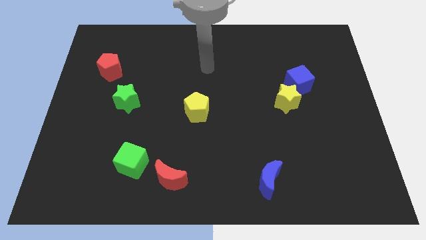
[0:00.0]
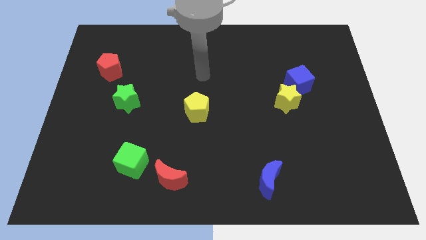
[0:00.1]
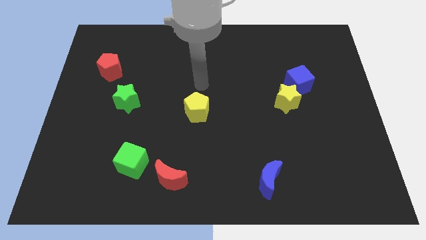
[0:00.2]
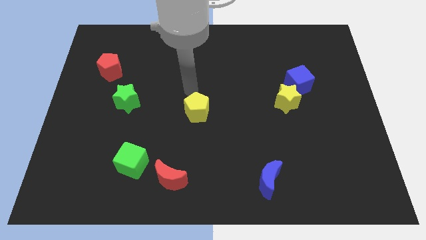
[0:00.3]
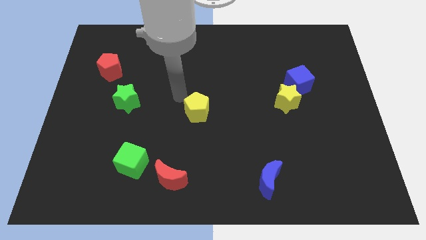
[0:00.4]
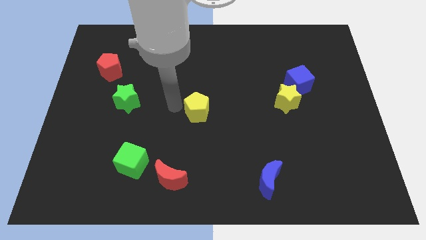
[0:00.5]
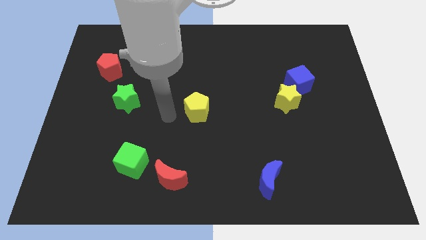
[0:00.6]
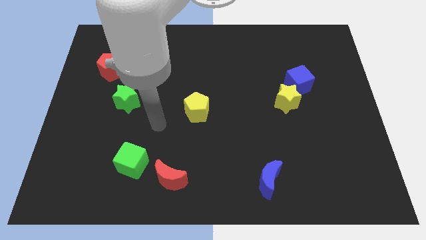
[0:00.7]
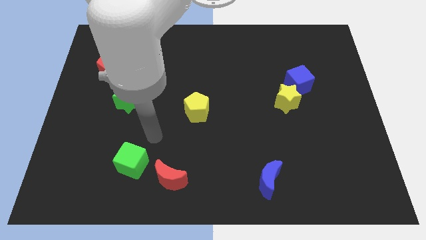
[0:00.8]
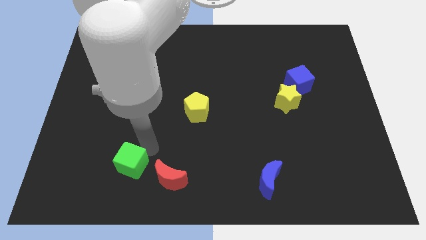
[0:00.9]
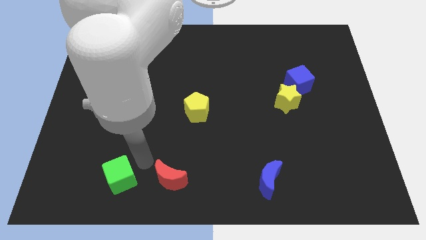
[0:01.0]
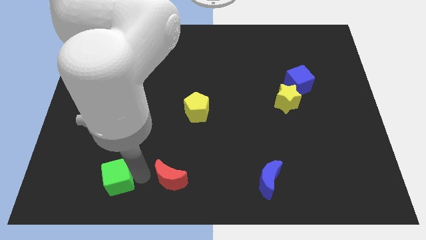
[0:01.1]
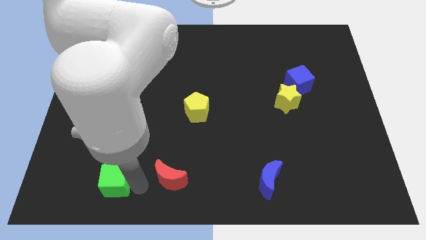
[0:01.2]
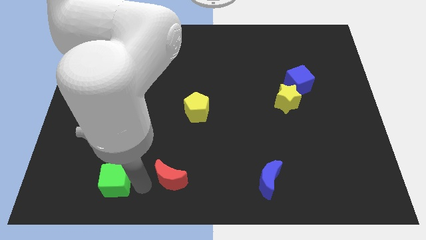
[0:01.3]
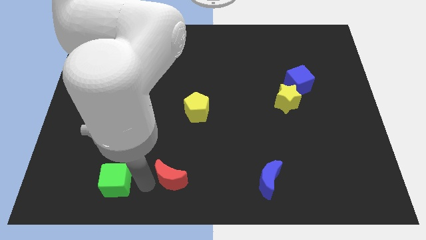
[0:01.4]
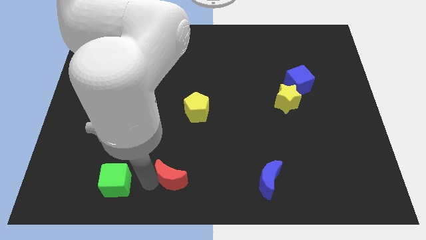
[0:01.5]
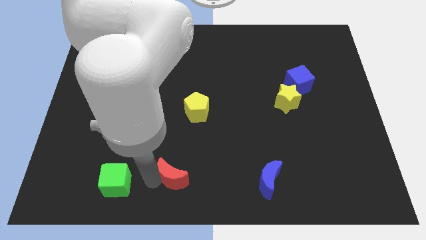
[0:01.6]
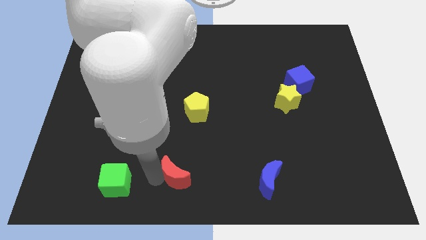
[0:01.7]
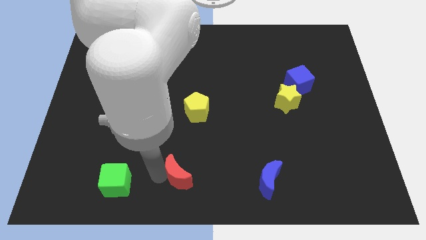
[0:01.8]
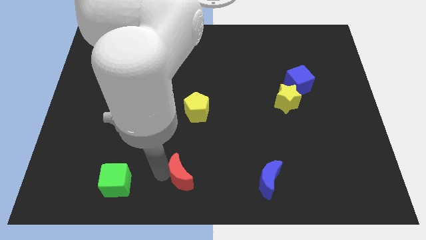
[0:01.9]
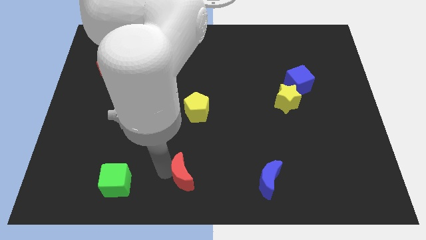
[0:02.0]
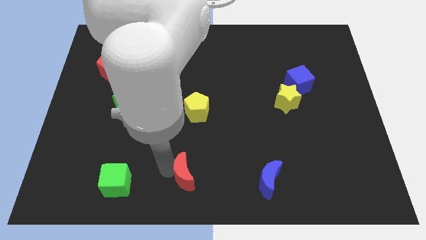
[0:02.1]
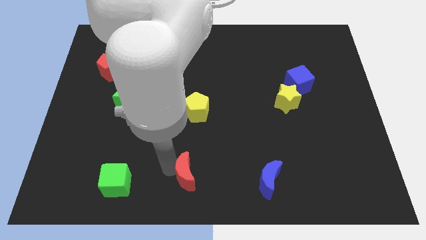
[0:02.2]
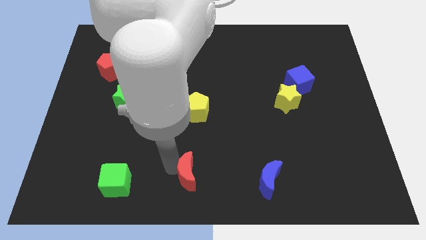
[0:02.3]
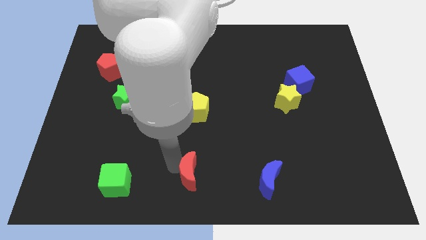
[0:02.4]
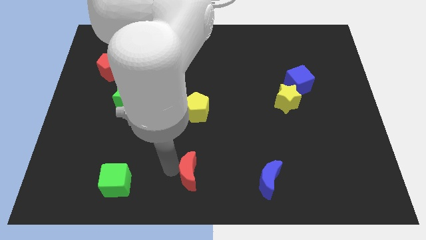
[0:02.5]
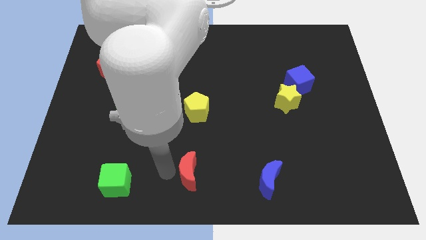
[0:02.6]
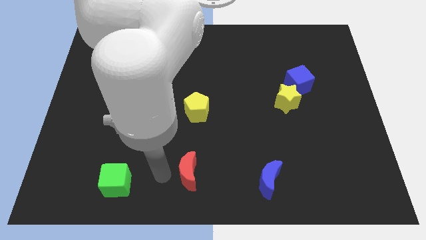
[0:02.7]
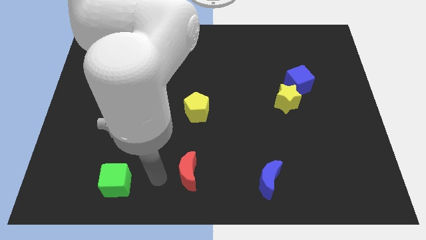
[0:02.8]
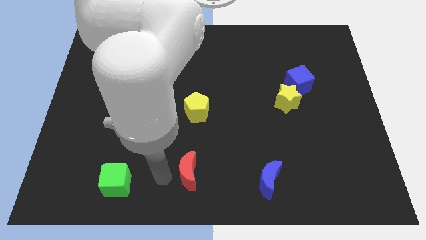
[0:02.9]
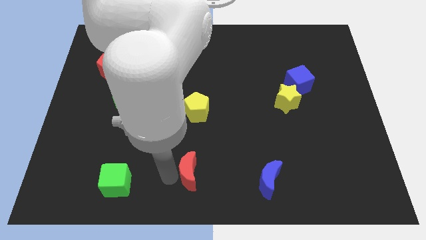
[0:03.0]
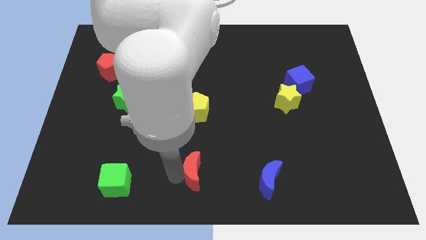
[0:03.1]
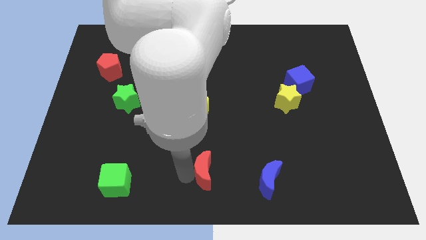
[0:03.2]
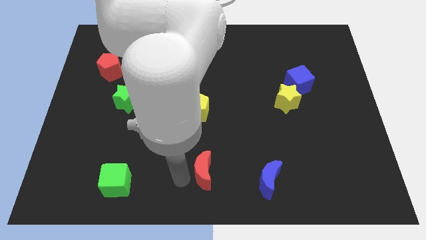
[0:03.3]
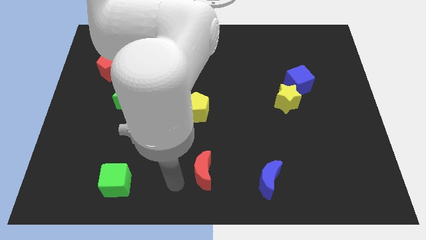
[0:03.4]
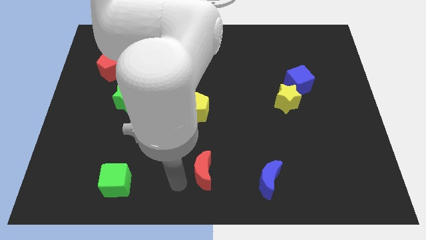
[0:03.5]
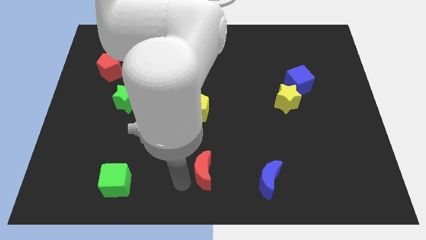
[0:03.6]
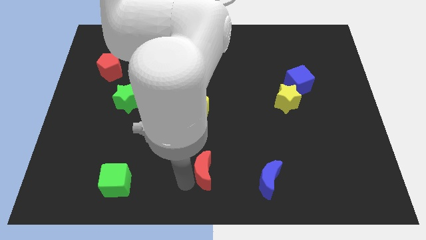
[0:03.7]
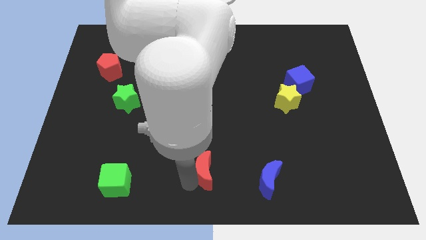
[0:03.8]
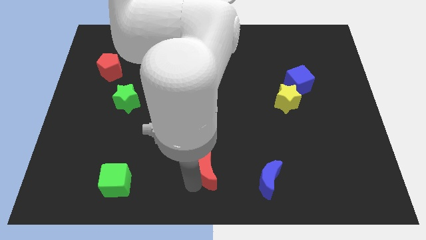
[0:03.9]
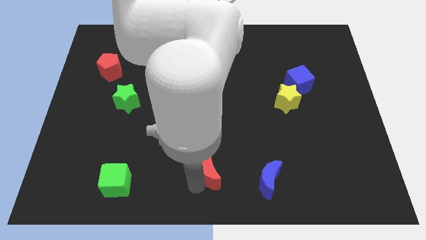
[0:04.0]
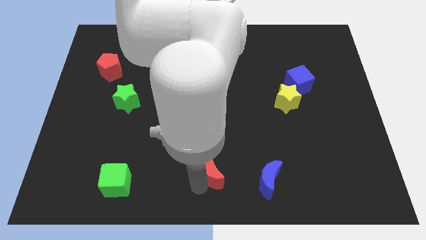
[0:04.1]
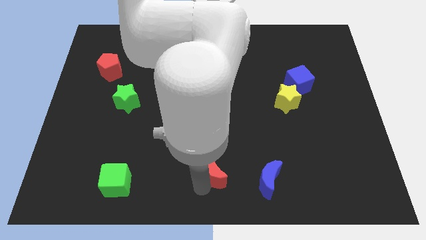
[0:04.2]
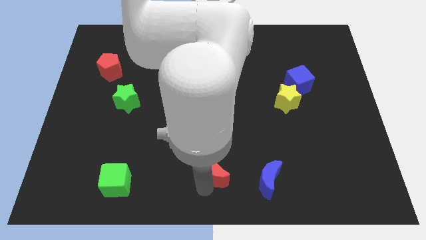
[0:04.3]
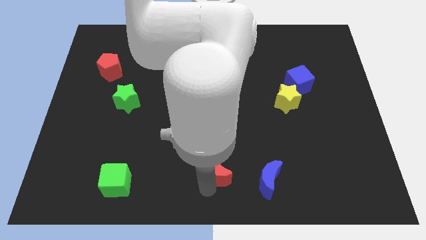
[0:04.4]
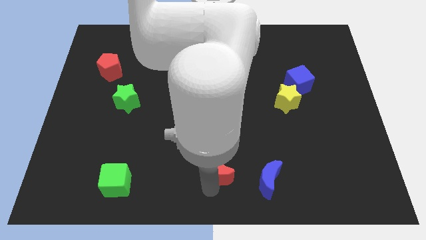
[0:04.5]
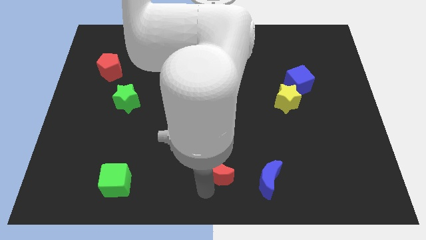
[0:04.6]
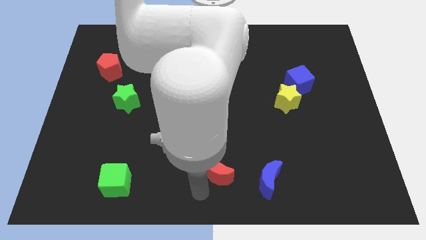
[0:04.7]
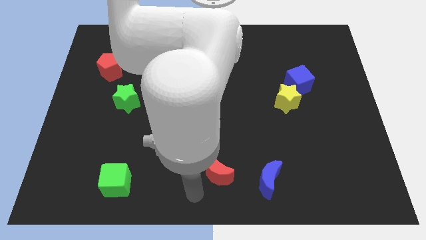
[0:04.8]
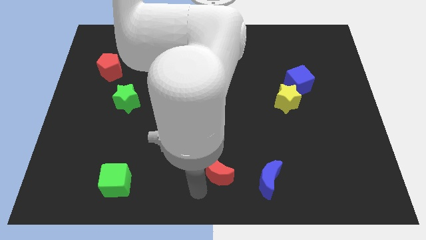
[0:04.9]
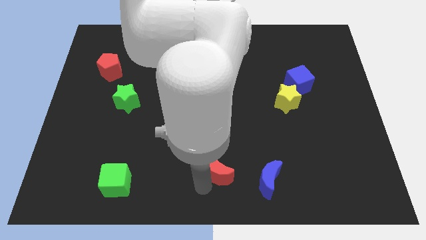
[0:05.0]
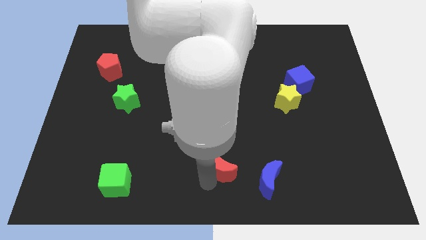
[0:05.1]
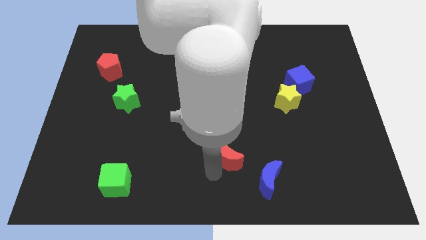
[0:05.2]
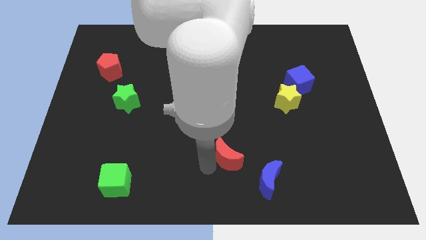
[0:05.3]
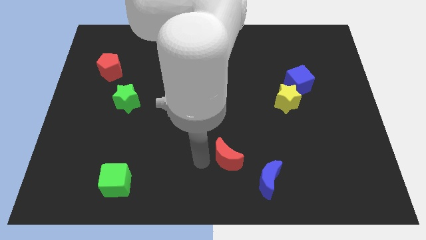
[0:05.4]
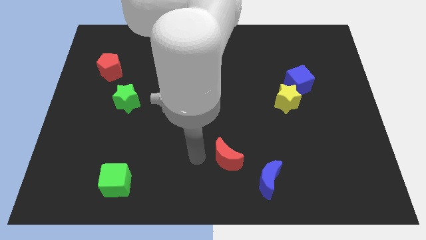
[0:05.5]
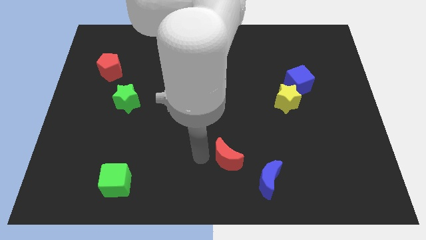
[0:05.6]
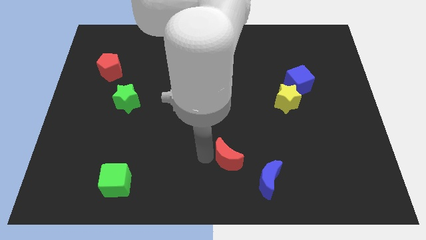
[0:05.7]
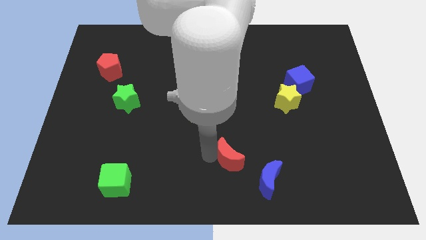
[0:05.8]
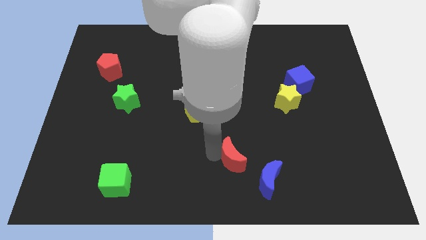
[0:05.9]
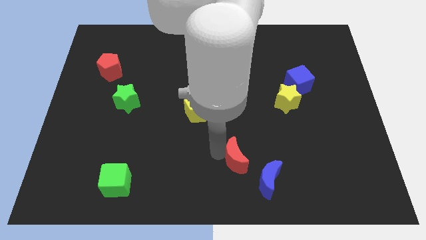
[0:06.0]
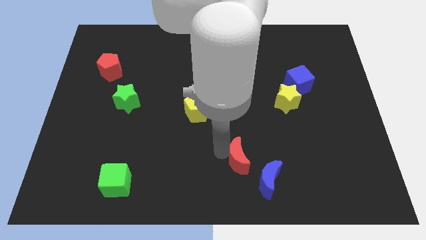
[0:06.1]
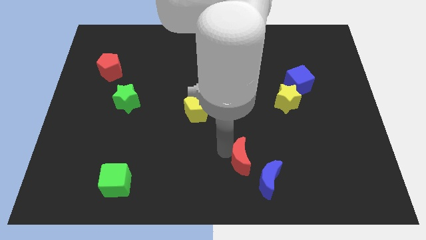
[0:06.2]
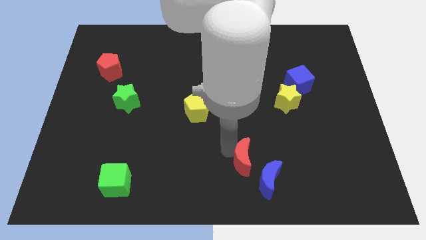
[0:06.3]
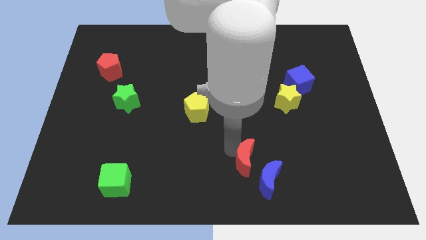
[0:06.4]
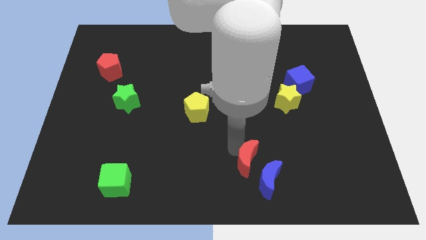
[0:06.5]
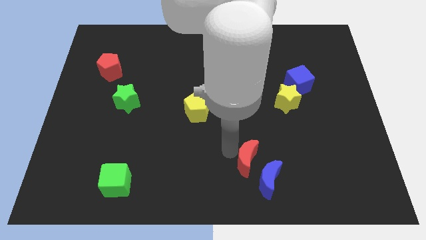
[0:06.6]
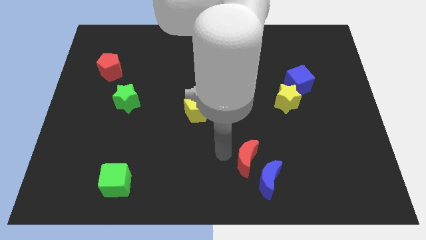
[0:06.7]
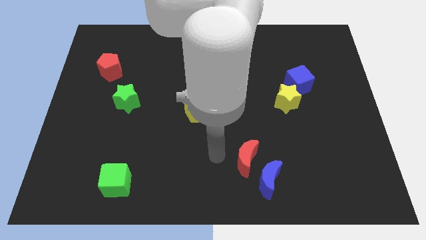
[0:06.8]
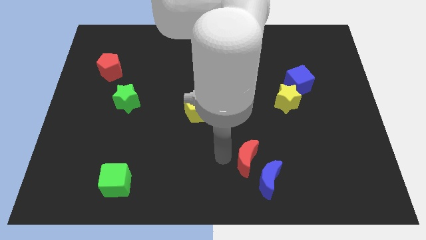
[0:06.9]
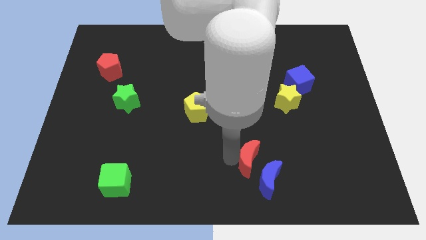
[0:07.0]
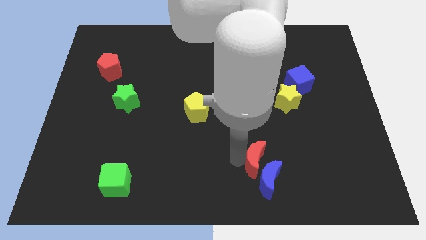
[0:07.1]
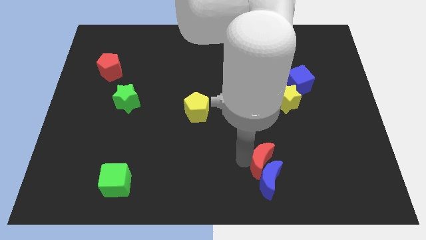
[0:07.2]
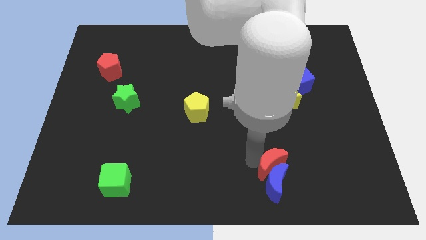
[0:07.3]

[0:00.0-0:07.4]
slide the red moon to the right

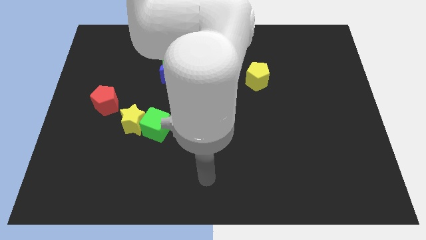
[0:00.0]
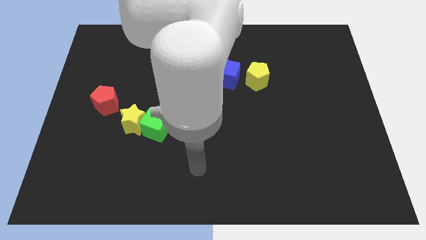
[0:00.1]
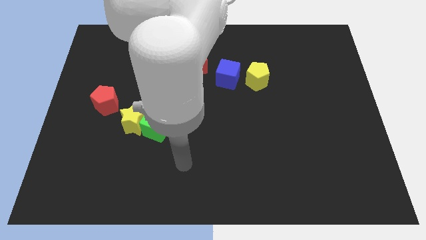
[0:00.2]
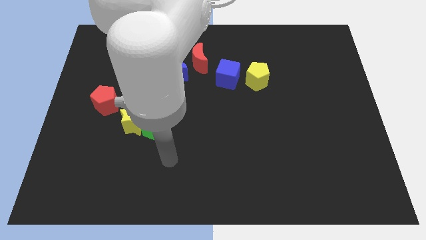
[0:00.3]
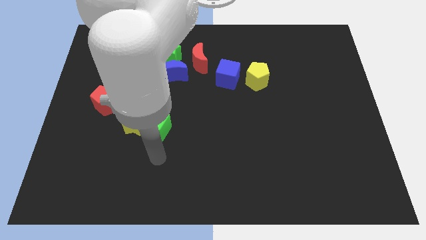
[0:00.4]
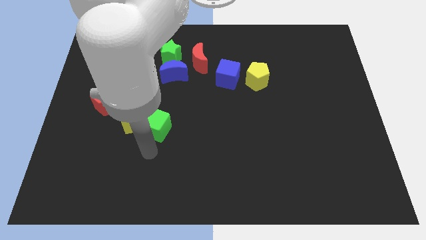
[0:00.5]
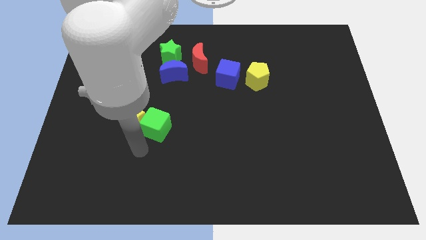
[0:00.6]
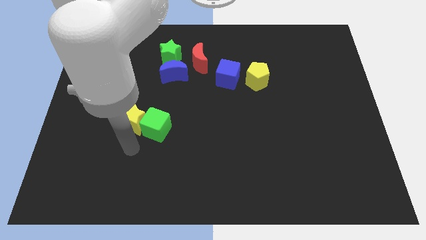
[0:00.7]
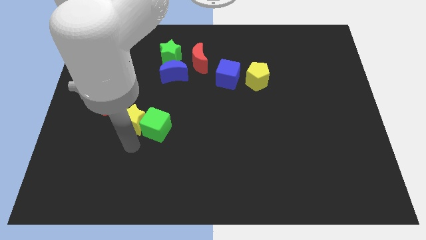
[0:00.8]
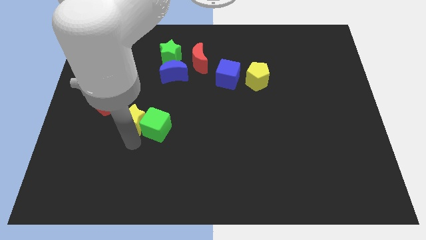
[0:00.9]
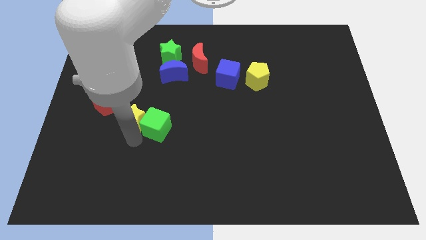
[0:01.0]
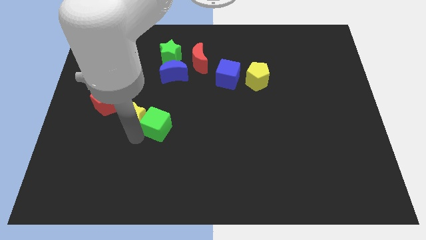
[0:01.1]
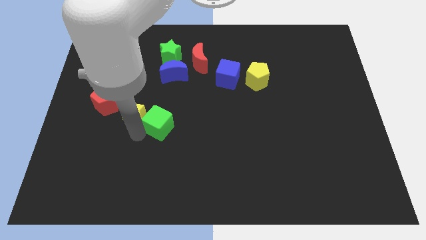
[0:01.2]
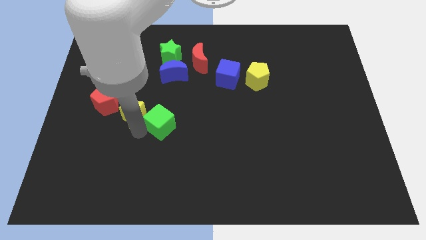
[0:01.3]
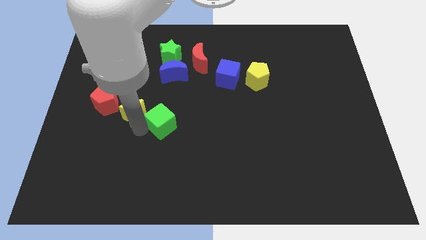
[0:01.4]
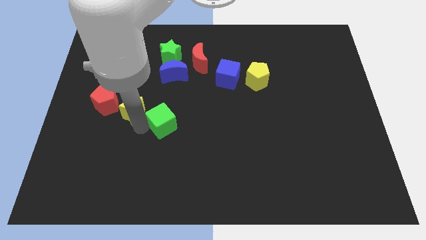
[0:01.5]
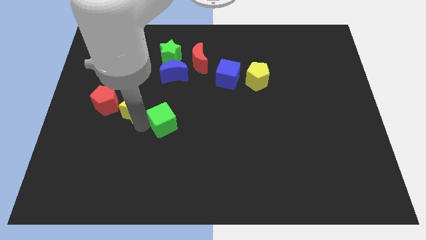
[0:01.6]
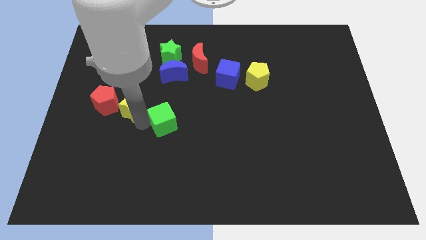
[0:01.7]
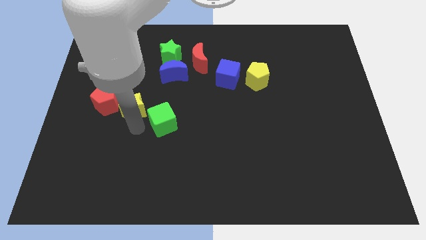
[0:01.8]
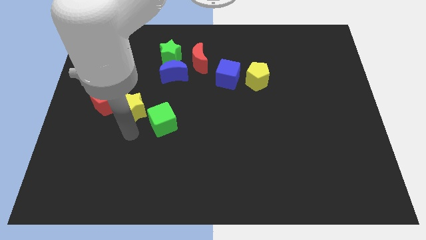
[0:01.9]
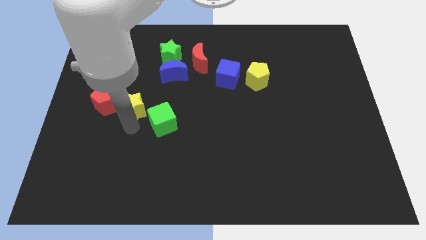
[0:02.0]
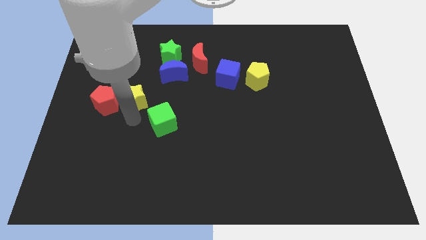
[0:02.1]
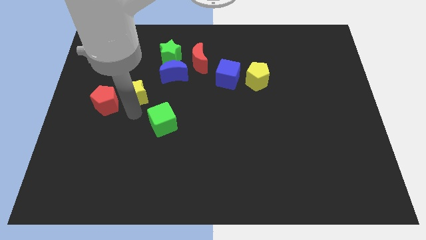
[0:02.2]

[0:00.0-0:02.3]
slightly slide the yellow star up
